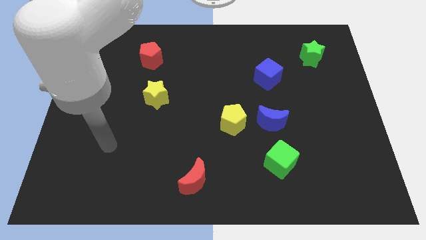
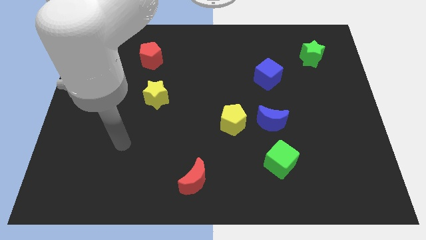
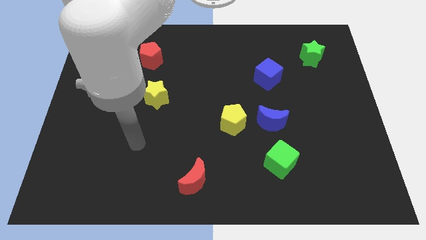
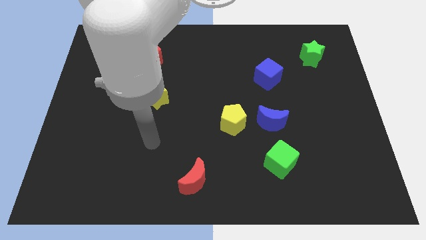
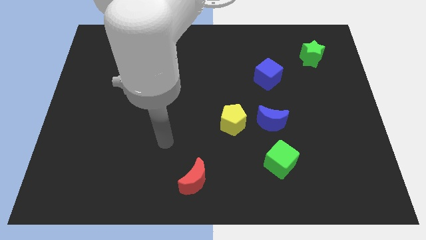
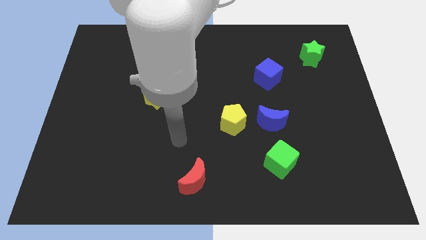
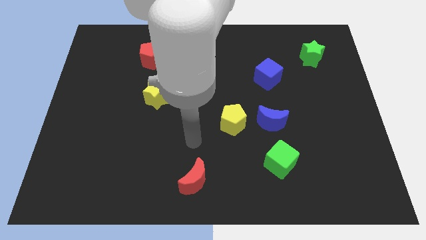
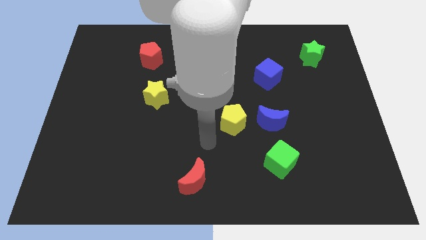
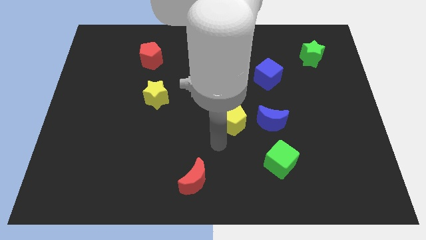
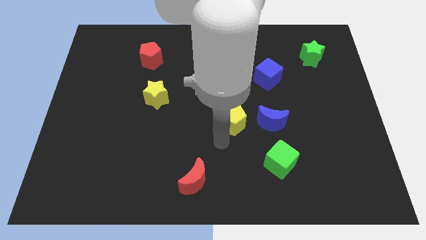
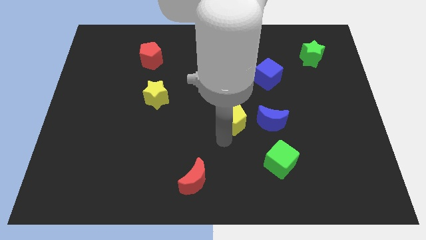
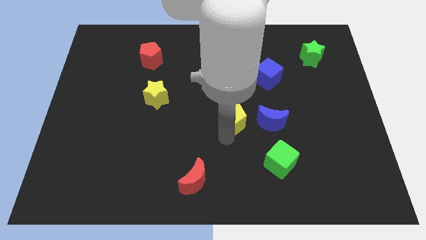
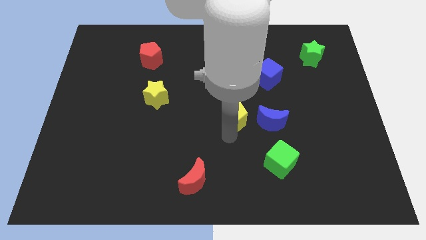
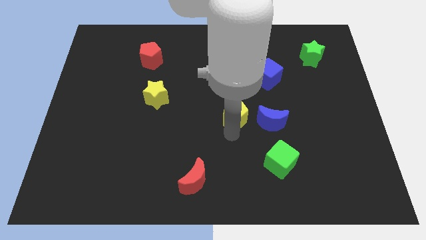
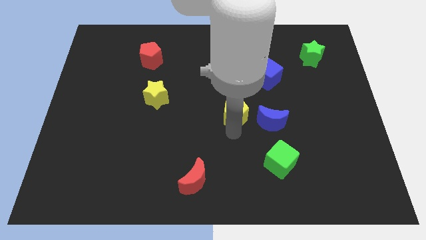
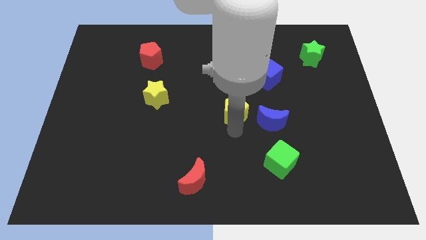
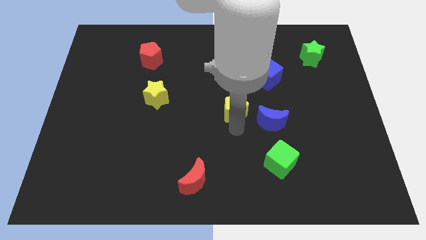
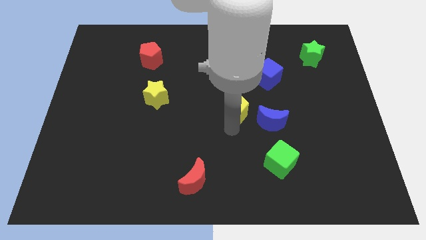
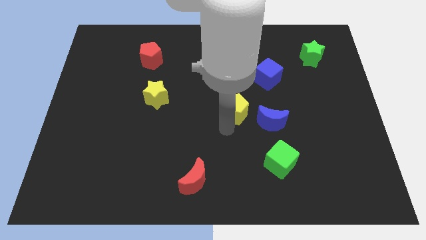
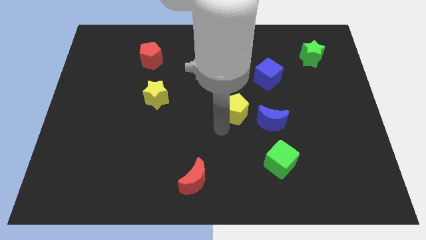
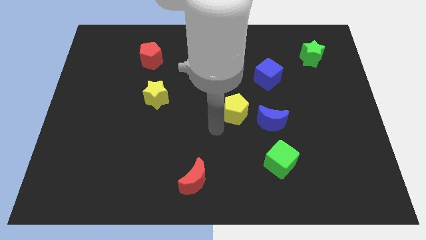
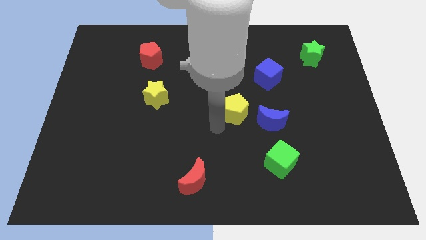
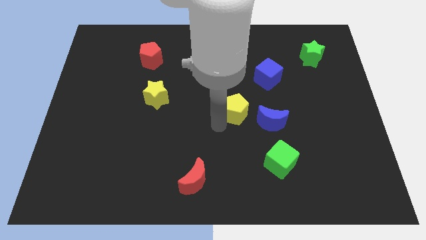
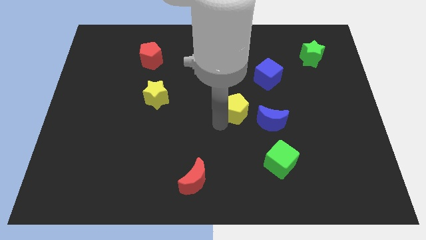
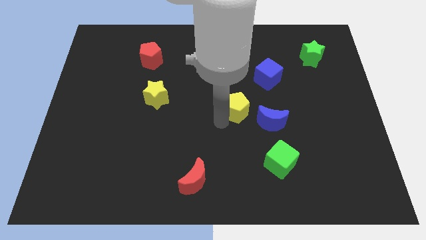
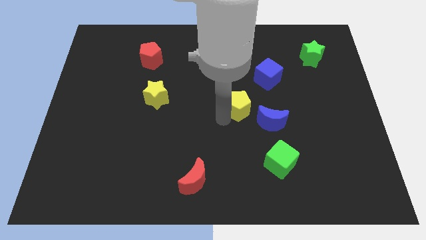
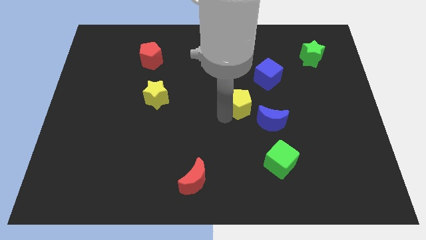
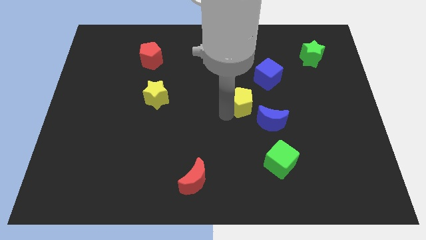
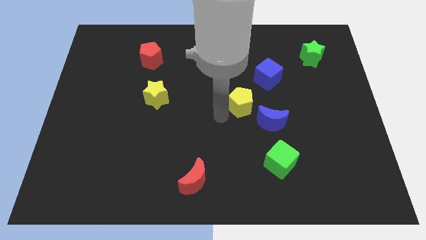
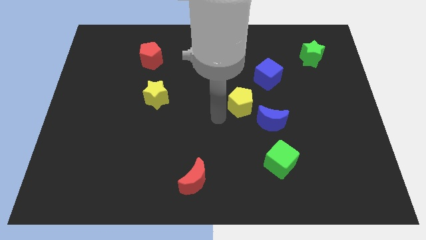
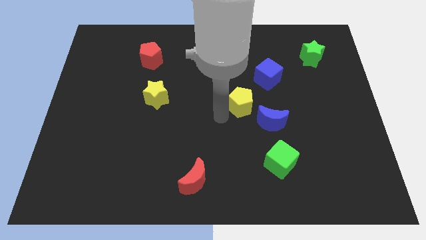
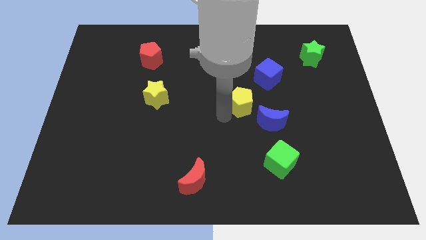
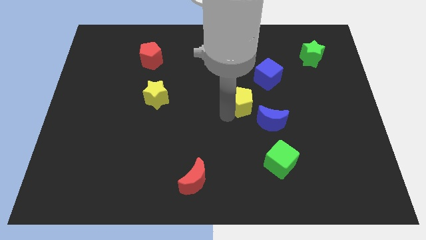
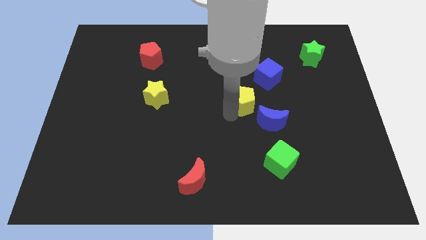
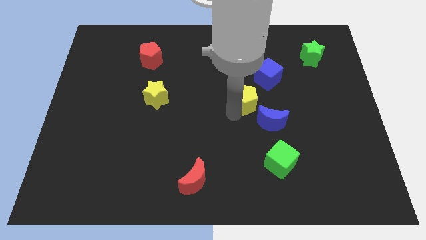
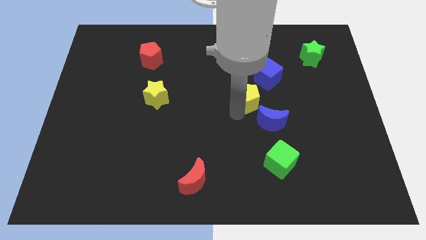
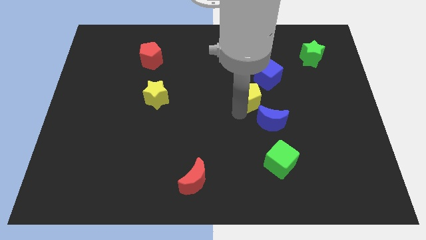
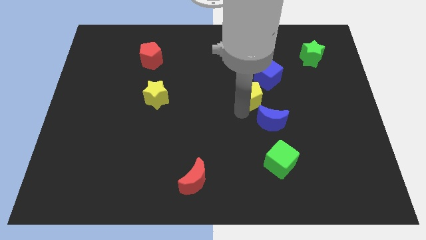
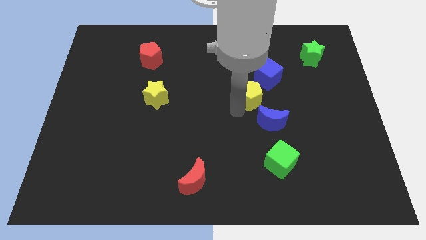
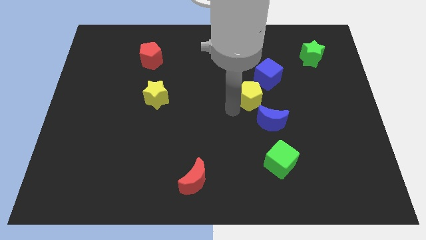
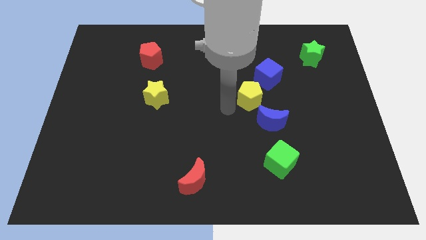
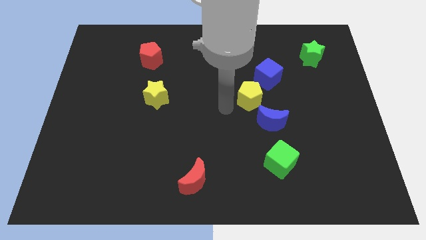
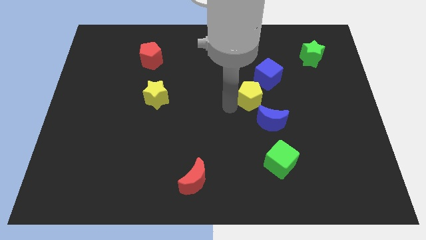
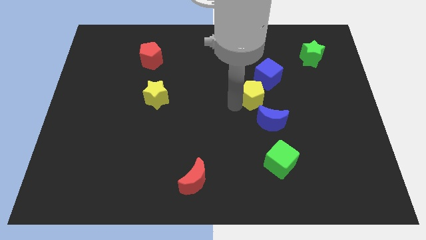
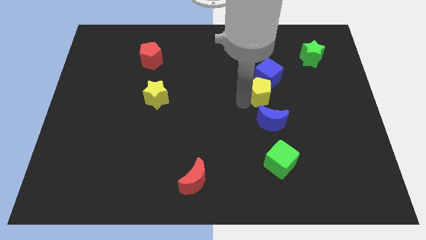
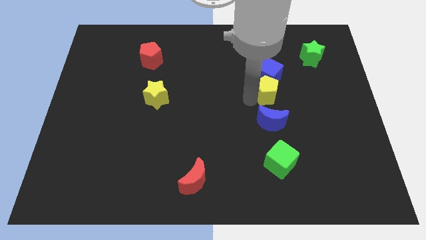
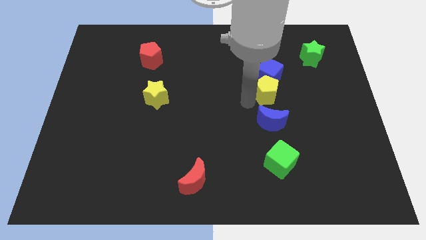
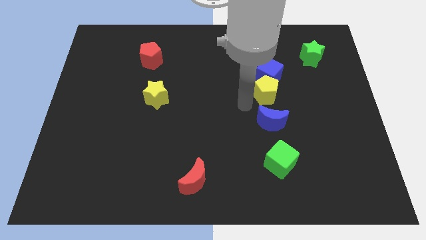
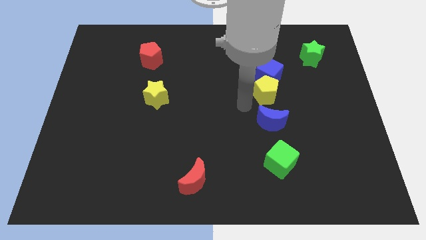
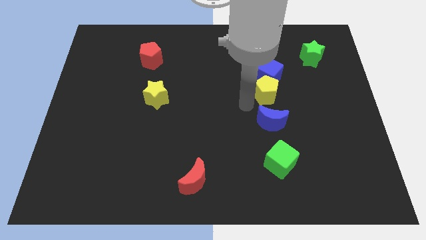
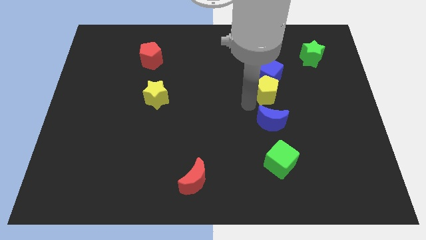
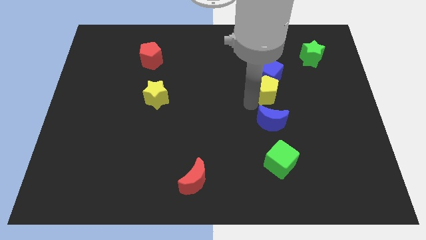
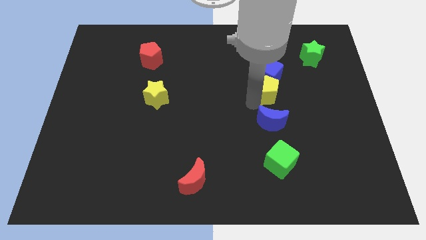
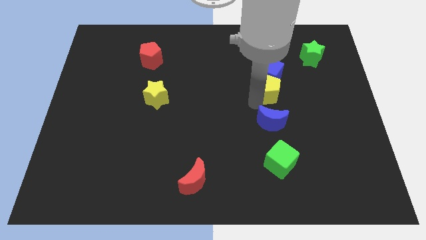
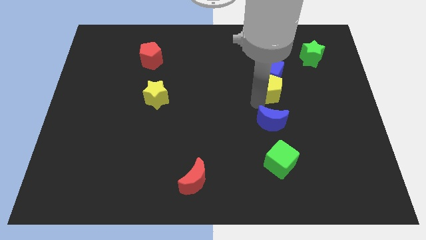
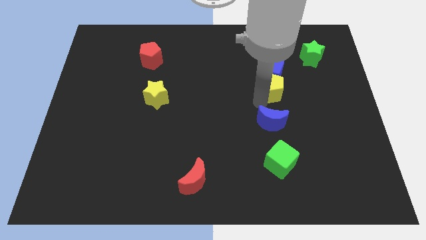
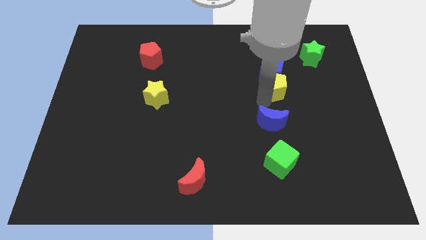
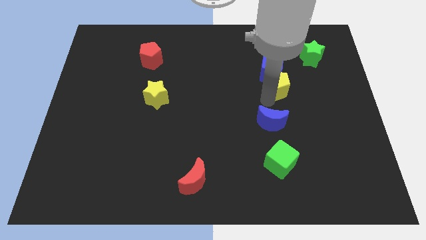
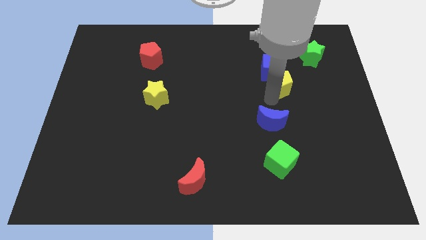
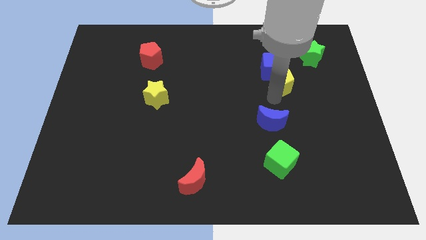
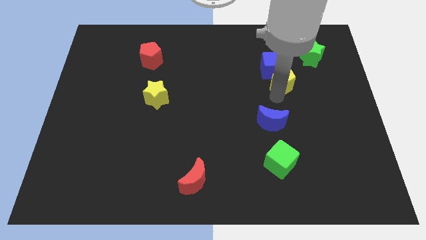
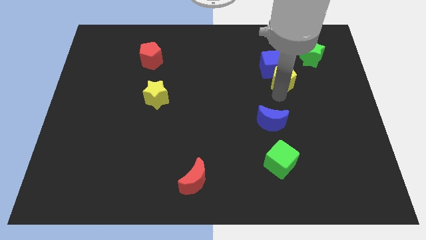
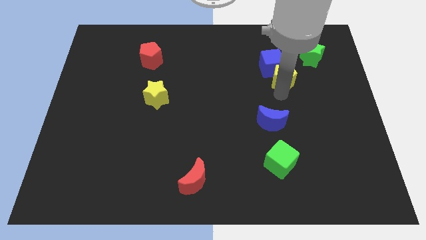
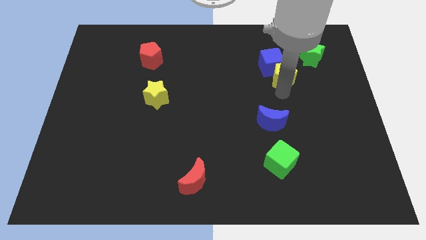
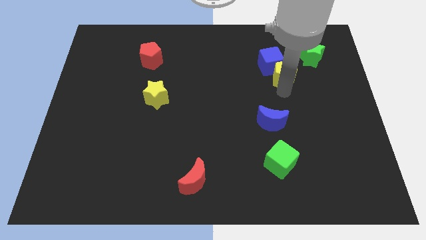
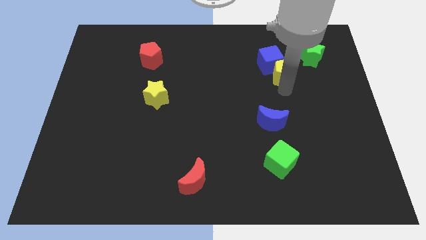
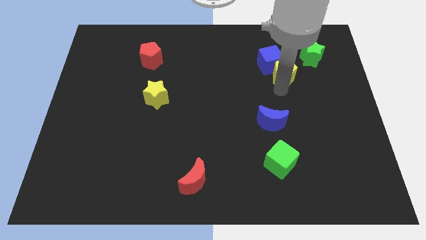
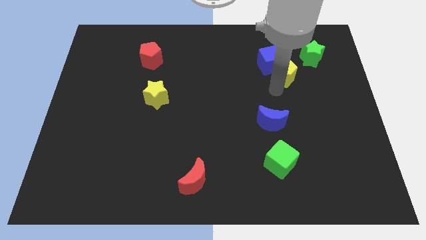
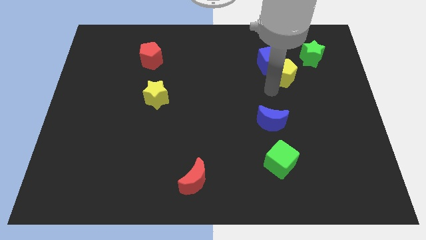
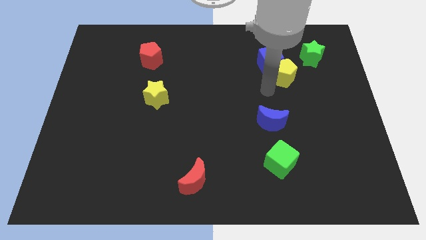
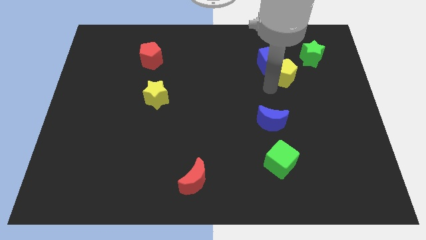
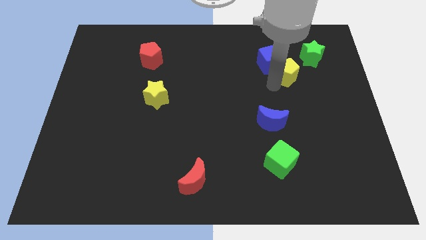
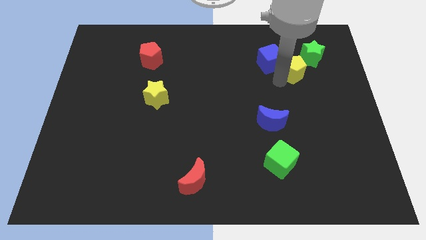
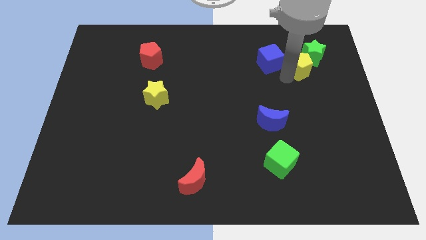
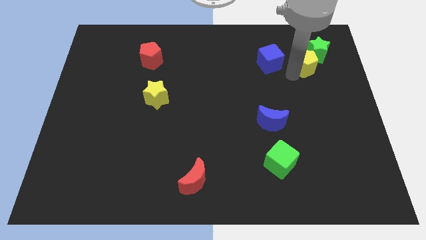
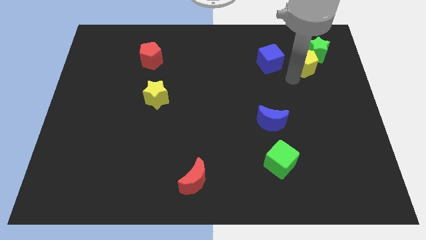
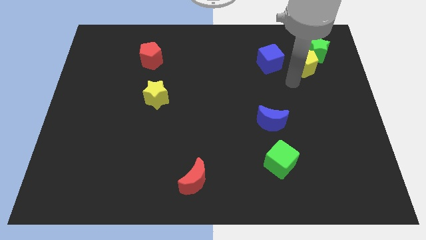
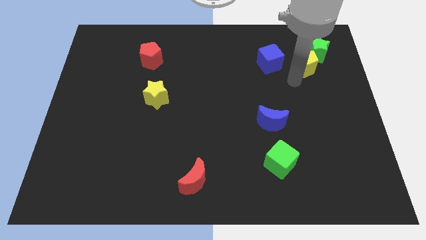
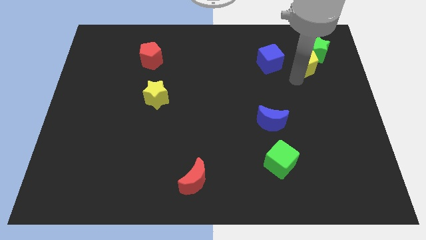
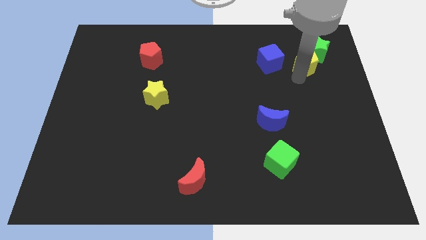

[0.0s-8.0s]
push the yellow pentagon close to the green star
